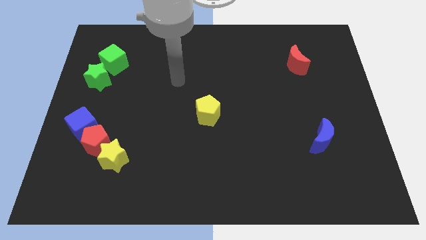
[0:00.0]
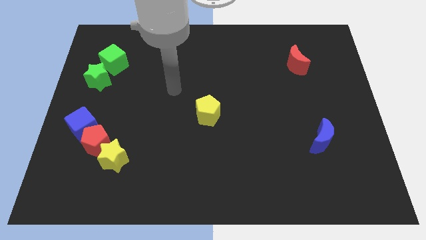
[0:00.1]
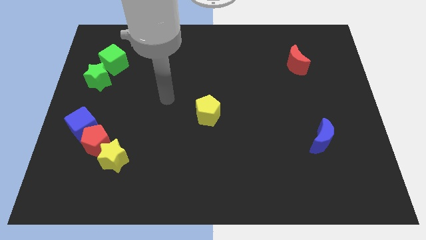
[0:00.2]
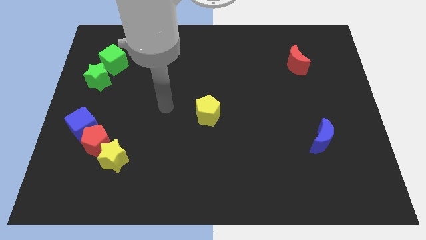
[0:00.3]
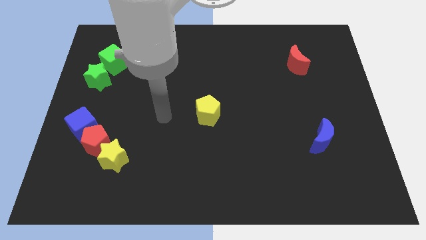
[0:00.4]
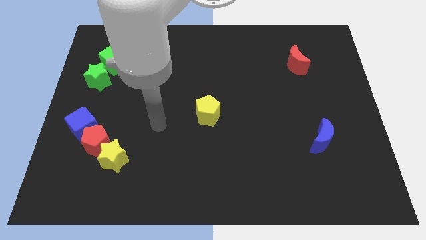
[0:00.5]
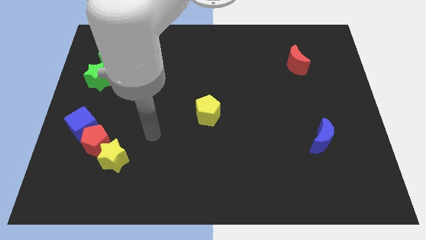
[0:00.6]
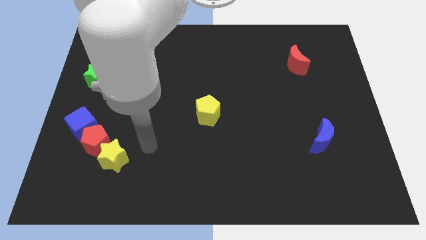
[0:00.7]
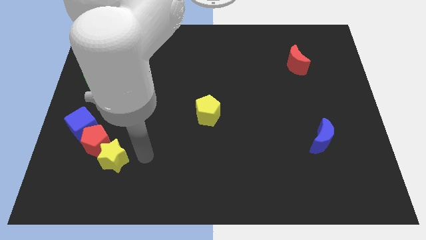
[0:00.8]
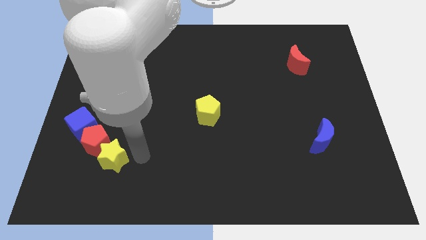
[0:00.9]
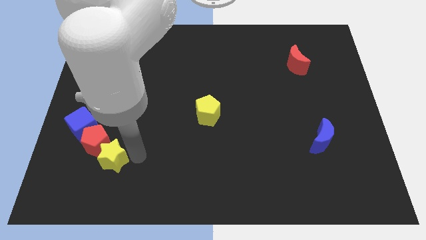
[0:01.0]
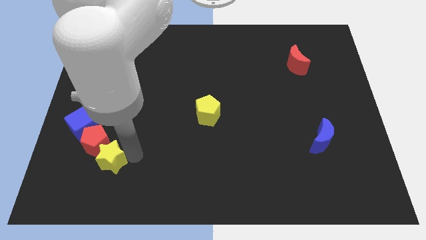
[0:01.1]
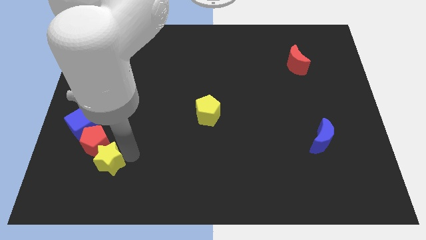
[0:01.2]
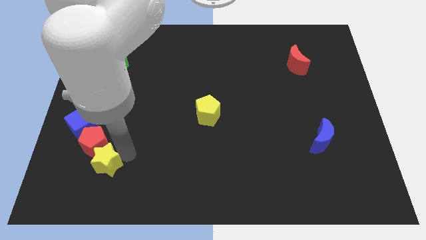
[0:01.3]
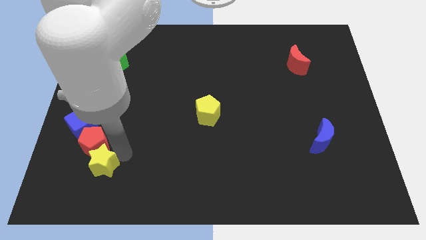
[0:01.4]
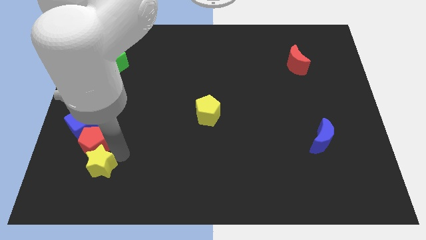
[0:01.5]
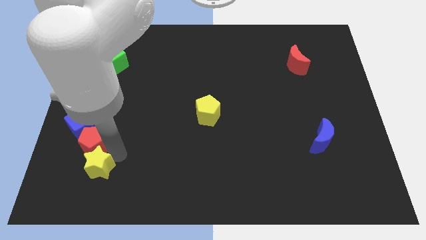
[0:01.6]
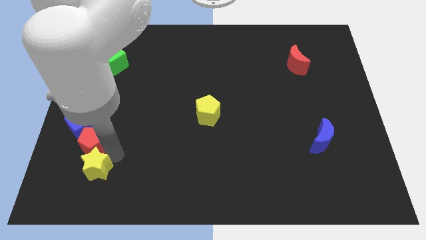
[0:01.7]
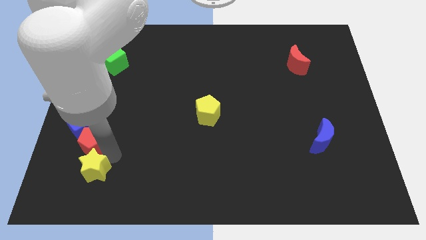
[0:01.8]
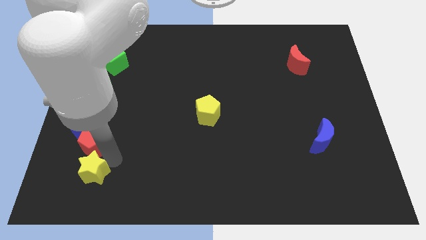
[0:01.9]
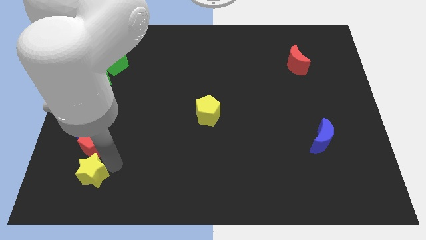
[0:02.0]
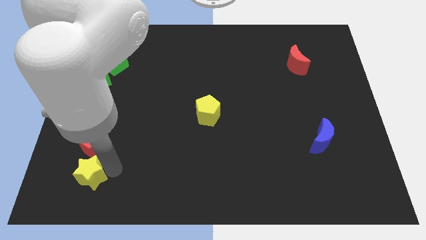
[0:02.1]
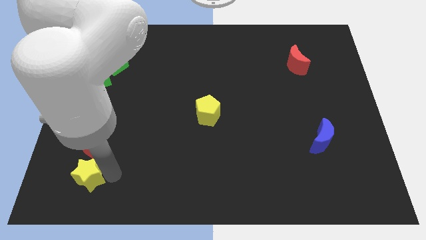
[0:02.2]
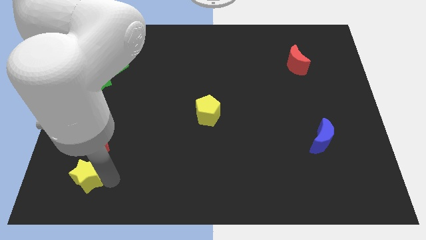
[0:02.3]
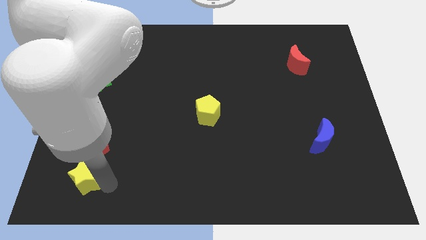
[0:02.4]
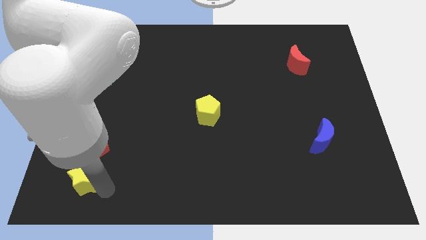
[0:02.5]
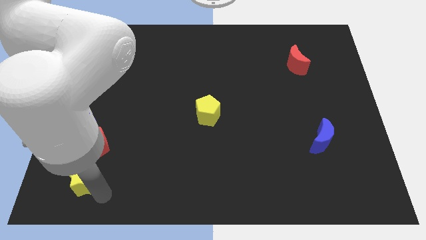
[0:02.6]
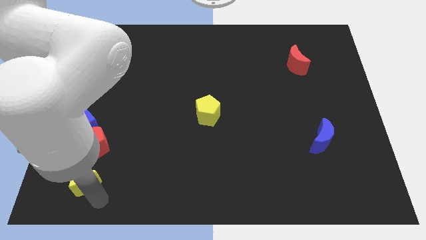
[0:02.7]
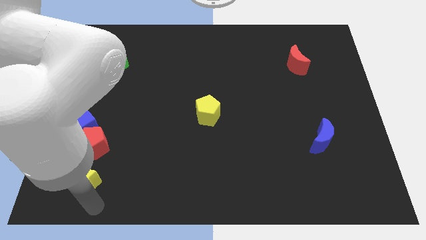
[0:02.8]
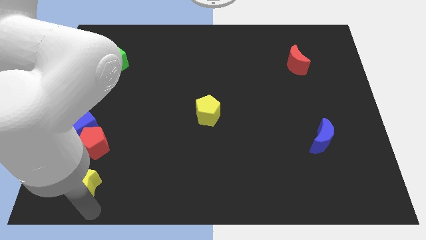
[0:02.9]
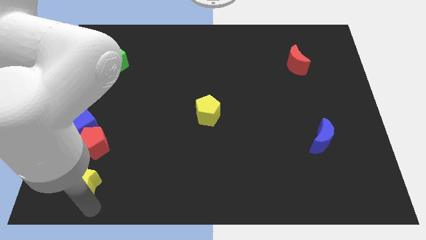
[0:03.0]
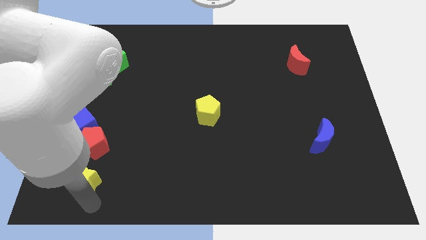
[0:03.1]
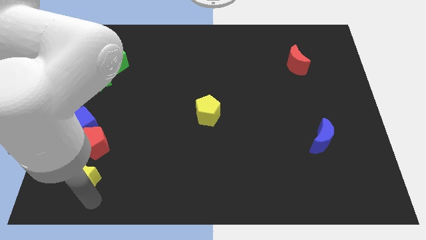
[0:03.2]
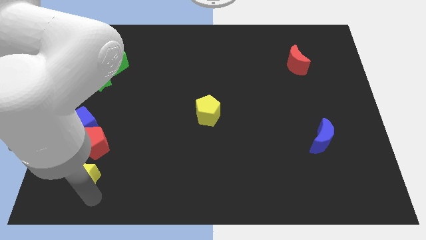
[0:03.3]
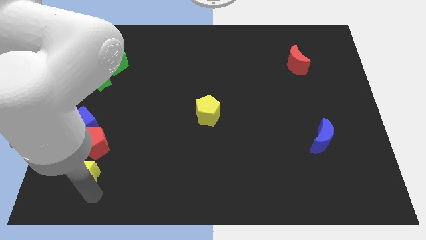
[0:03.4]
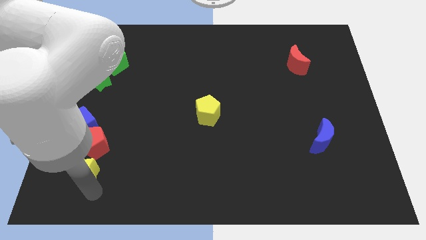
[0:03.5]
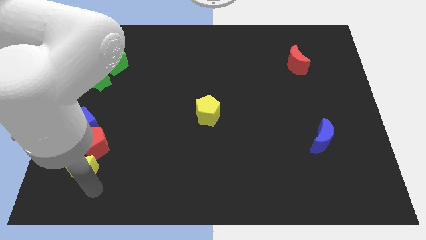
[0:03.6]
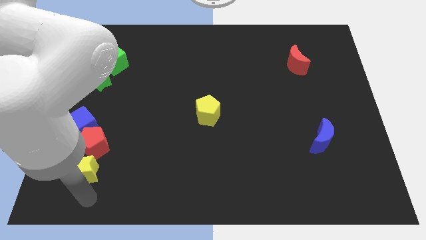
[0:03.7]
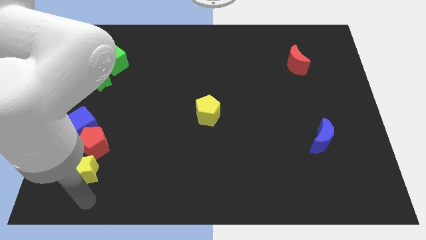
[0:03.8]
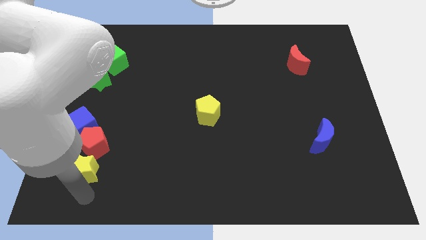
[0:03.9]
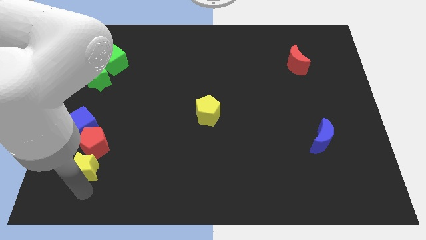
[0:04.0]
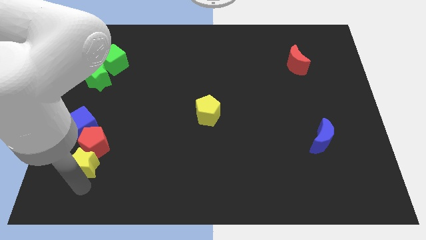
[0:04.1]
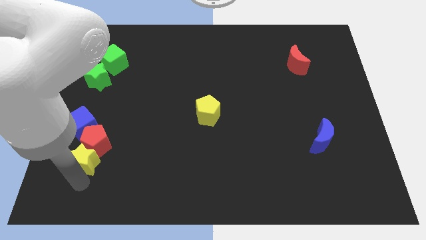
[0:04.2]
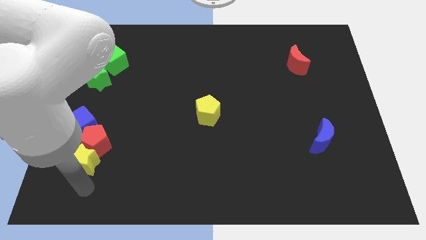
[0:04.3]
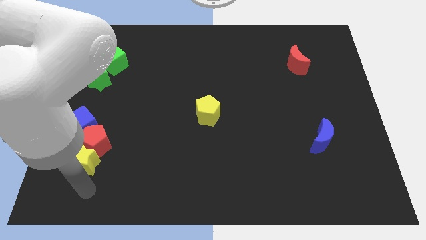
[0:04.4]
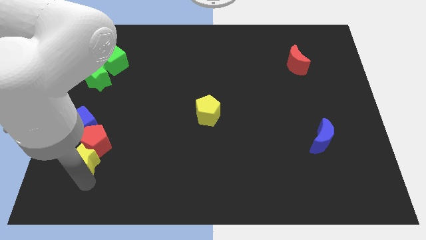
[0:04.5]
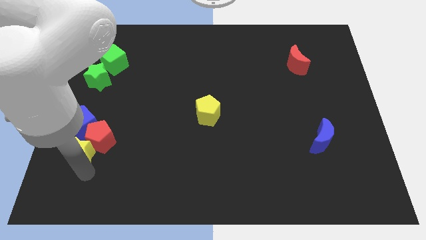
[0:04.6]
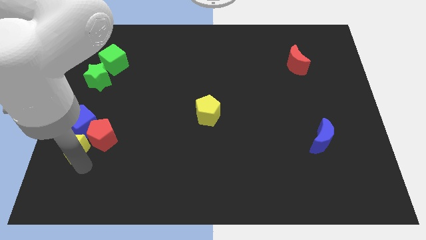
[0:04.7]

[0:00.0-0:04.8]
move the yellow star next to the blue cube

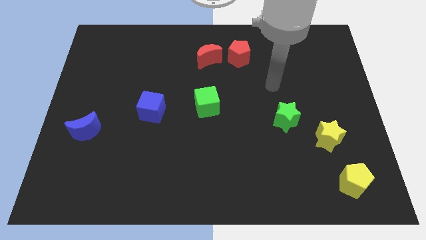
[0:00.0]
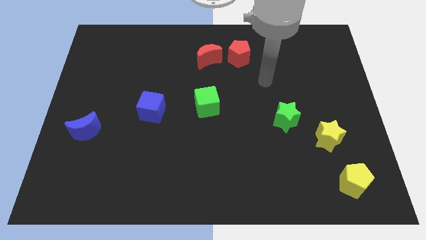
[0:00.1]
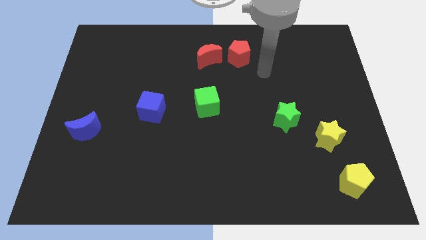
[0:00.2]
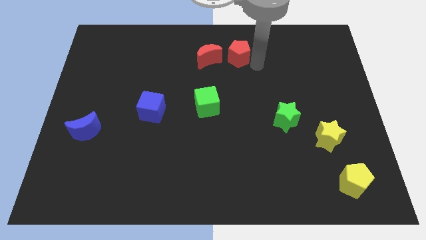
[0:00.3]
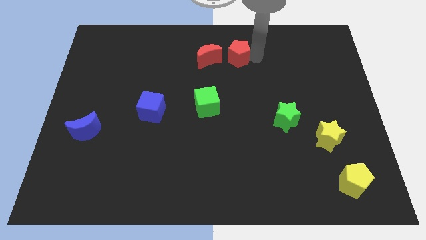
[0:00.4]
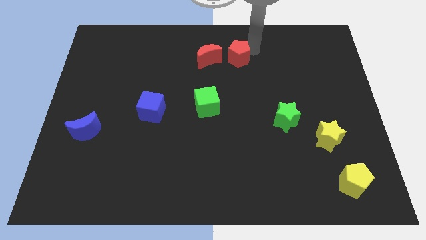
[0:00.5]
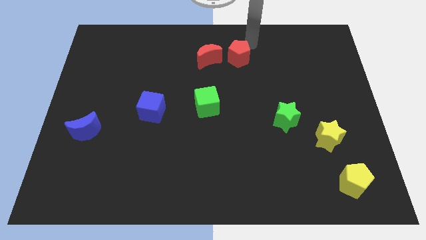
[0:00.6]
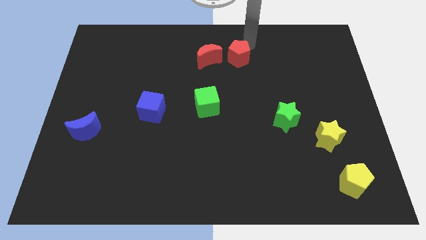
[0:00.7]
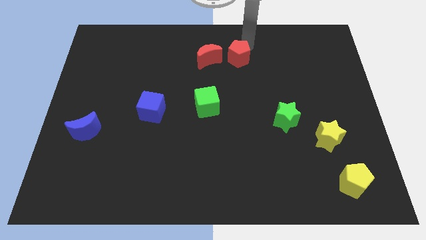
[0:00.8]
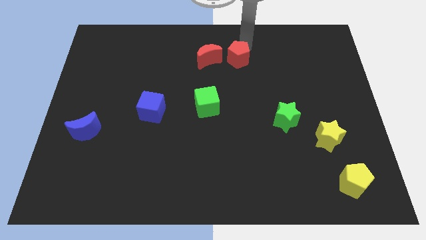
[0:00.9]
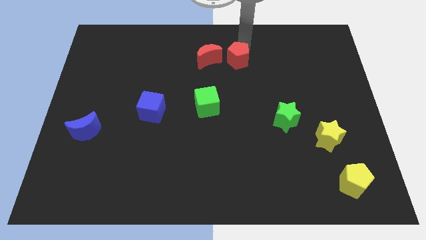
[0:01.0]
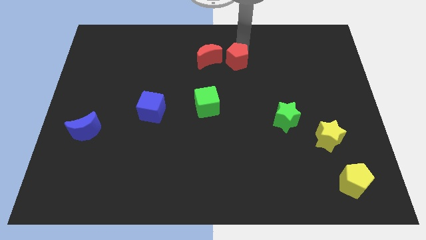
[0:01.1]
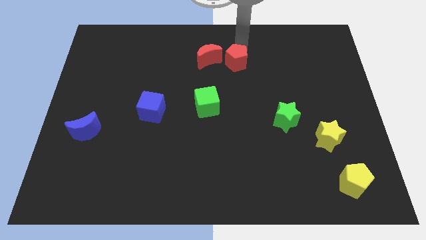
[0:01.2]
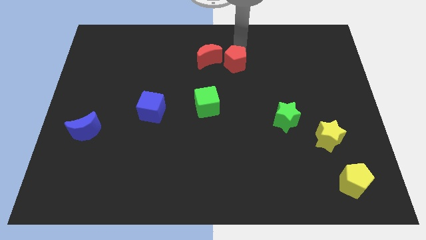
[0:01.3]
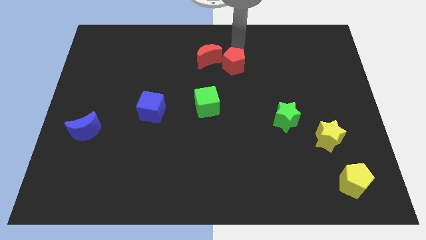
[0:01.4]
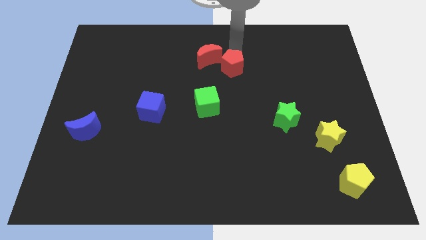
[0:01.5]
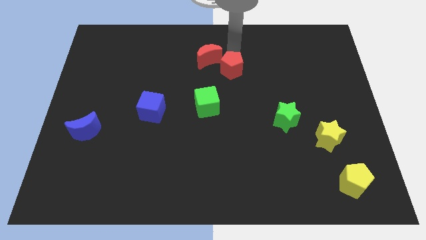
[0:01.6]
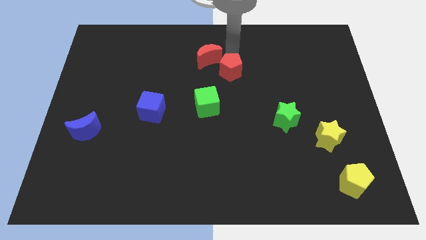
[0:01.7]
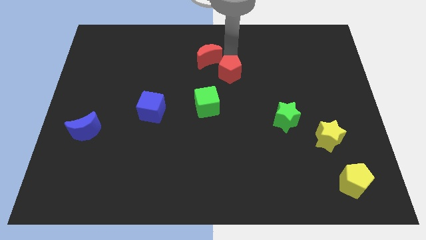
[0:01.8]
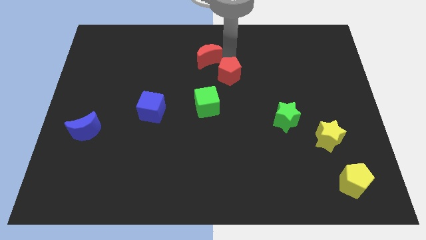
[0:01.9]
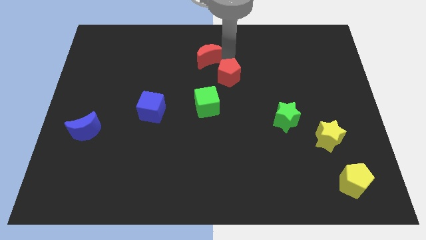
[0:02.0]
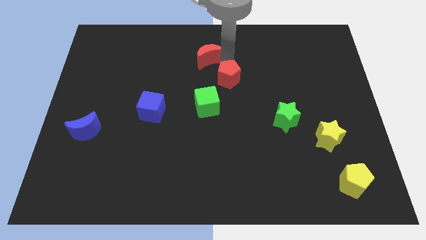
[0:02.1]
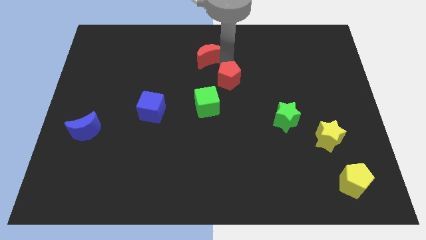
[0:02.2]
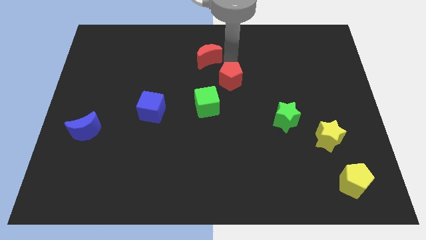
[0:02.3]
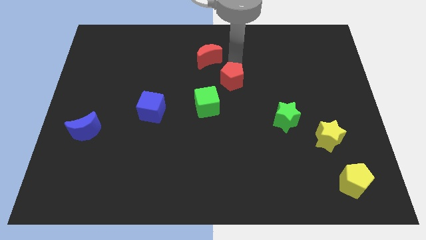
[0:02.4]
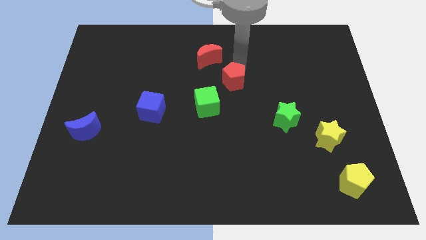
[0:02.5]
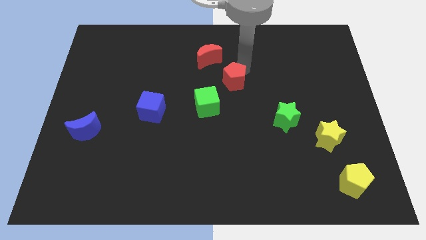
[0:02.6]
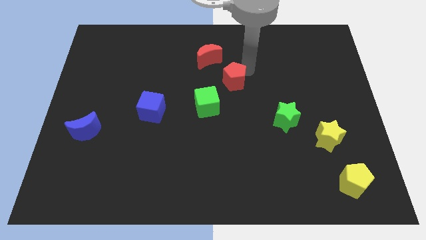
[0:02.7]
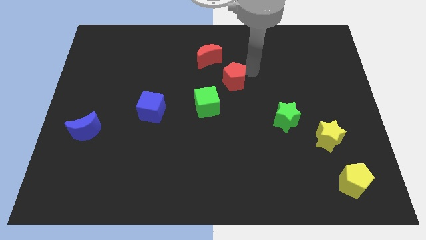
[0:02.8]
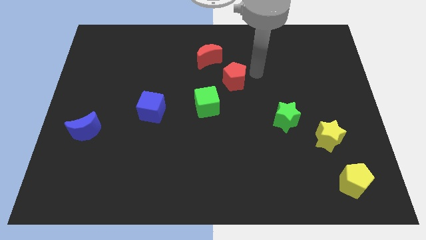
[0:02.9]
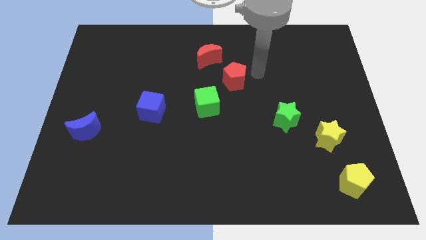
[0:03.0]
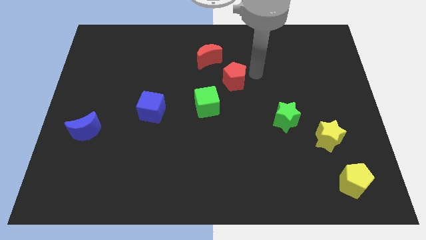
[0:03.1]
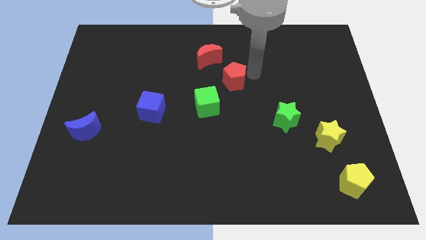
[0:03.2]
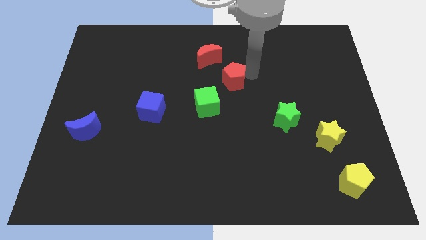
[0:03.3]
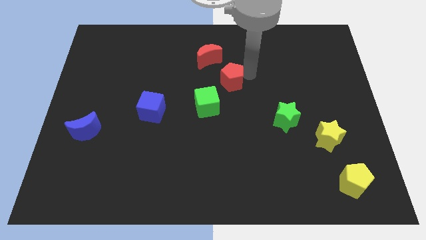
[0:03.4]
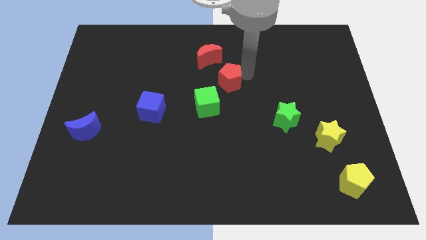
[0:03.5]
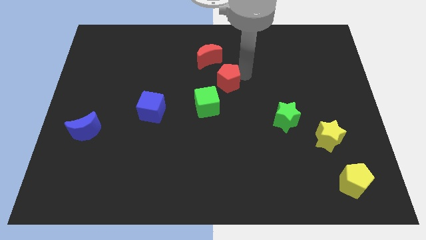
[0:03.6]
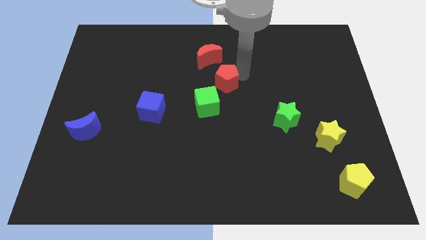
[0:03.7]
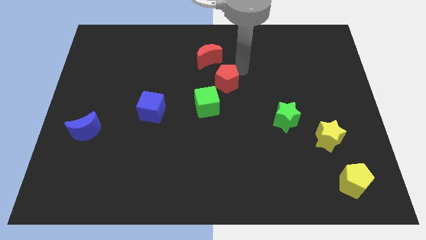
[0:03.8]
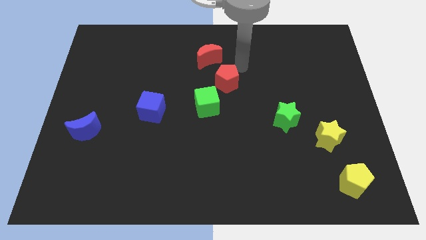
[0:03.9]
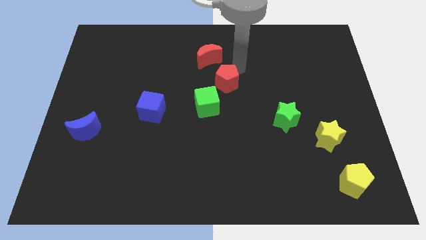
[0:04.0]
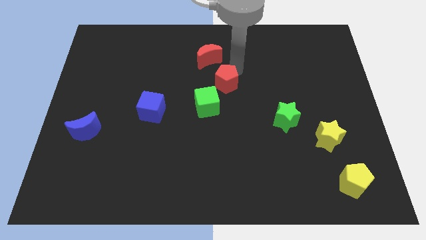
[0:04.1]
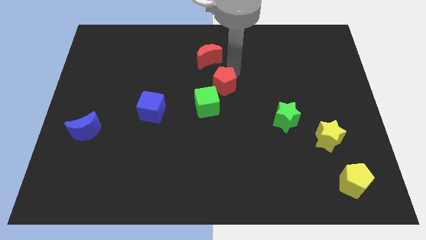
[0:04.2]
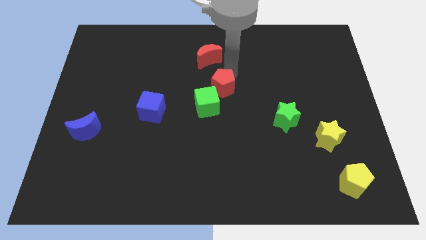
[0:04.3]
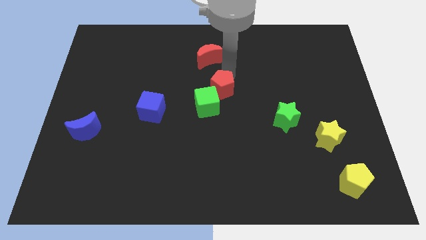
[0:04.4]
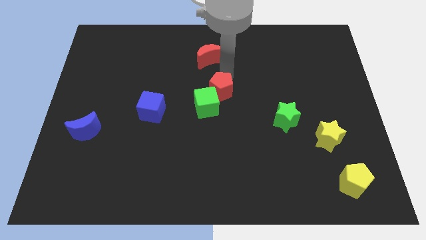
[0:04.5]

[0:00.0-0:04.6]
move the red pentagon towards the green cube
